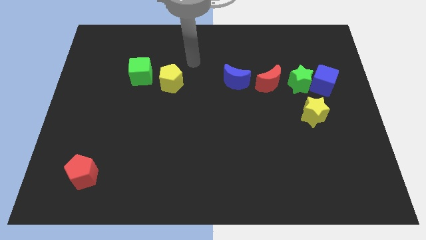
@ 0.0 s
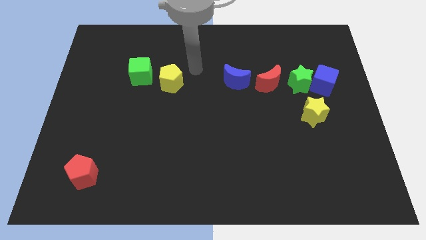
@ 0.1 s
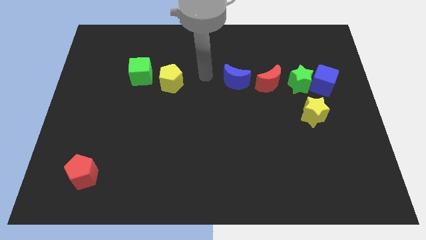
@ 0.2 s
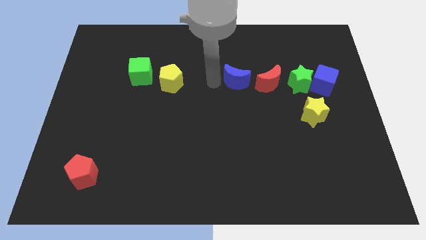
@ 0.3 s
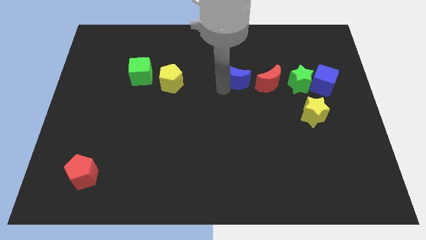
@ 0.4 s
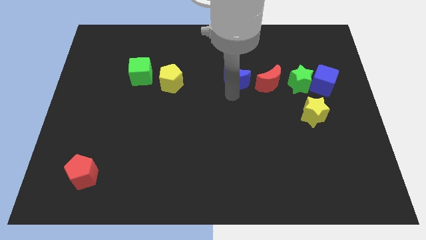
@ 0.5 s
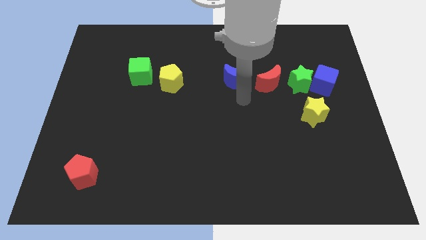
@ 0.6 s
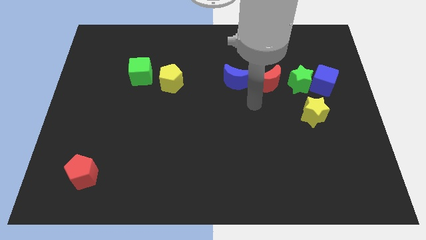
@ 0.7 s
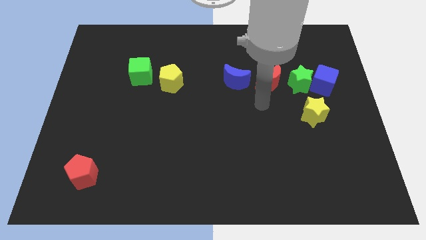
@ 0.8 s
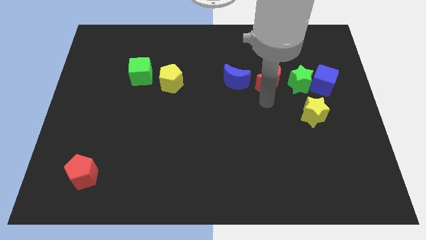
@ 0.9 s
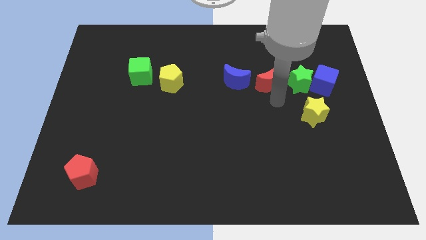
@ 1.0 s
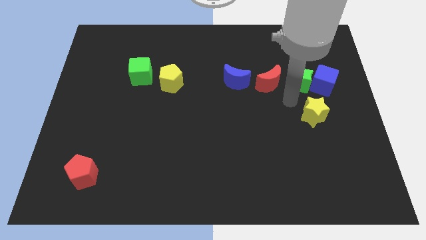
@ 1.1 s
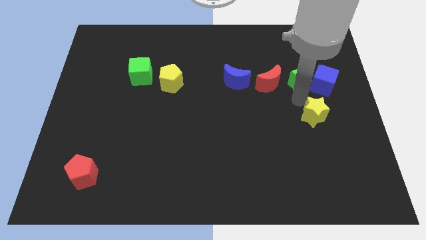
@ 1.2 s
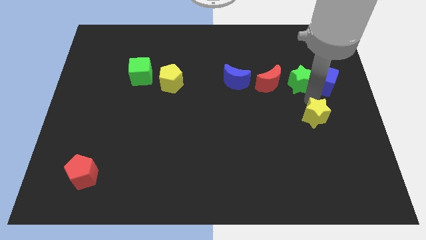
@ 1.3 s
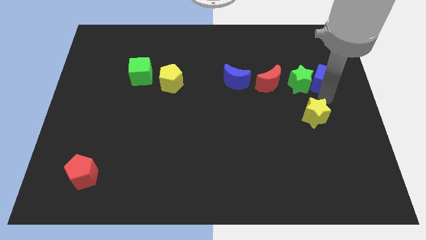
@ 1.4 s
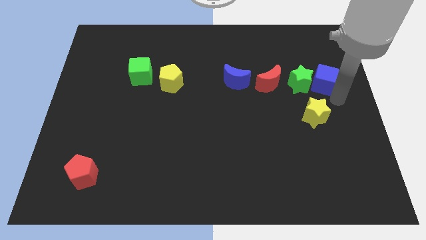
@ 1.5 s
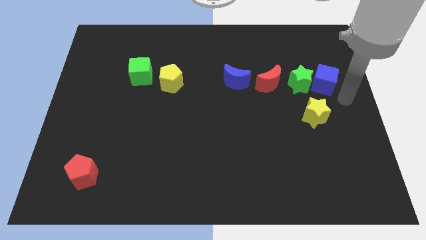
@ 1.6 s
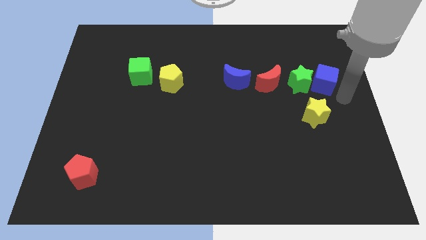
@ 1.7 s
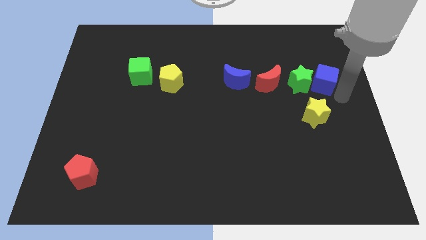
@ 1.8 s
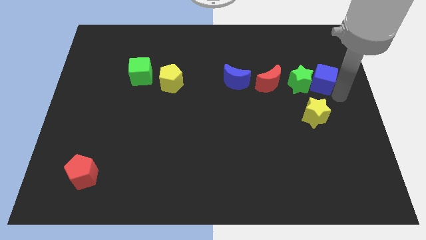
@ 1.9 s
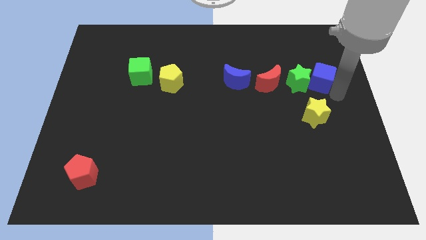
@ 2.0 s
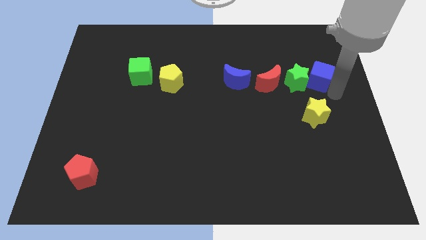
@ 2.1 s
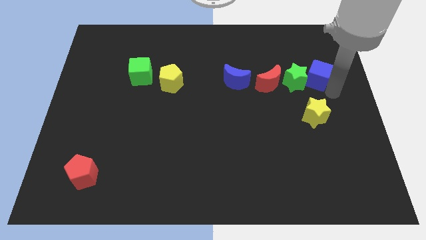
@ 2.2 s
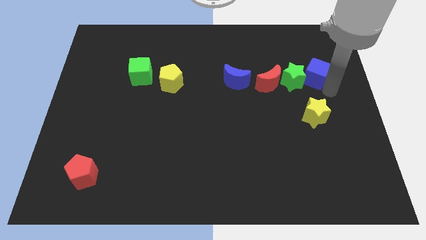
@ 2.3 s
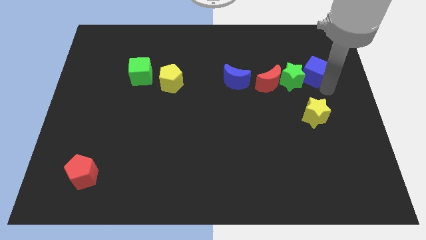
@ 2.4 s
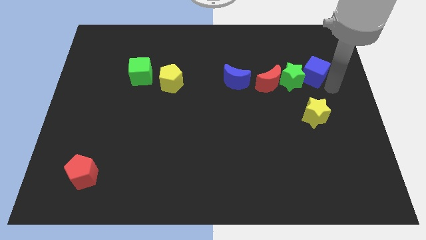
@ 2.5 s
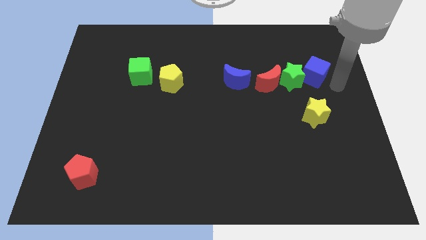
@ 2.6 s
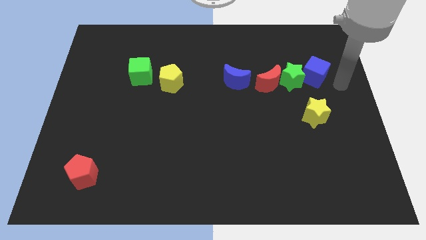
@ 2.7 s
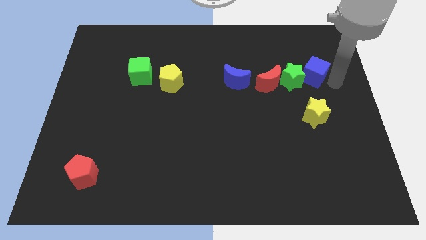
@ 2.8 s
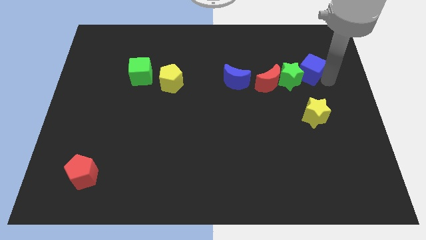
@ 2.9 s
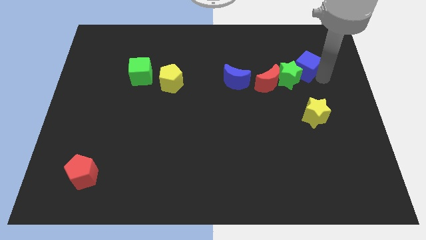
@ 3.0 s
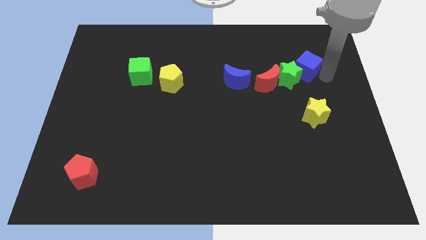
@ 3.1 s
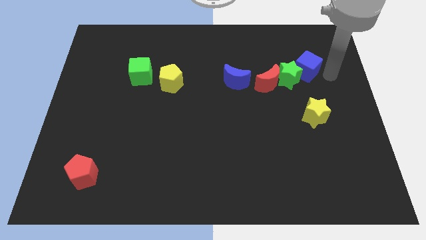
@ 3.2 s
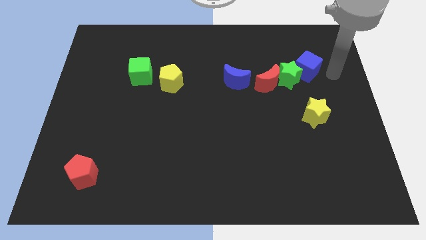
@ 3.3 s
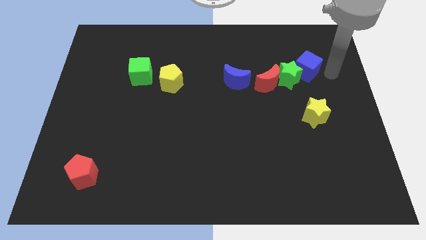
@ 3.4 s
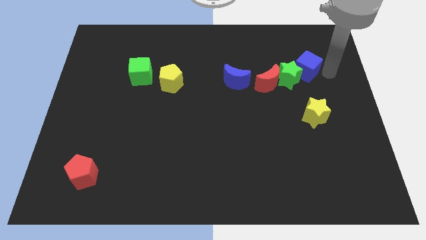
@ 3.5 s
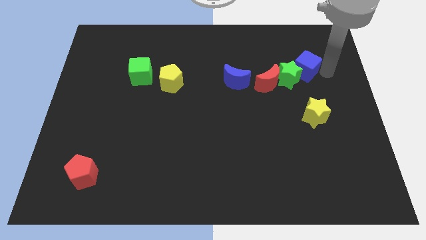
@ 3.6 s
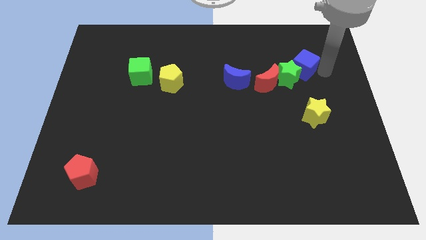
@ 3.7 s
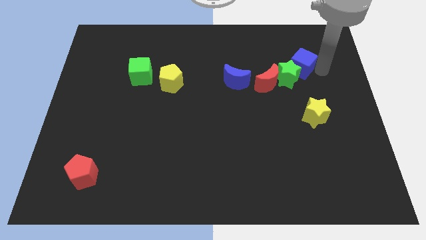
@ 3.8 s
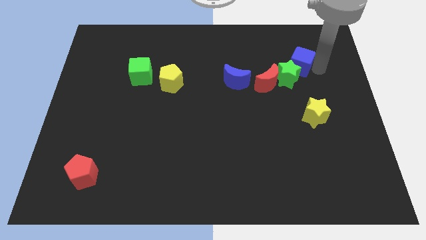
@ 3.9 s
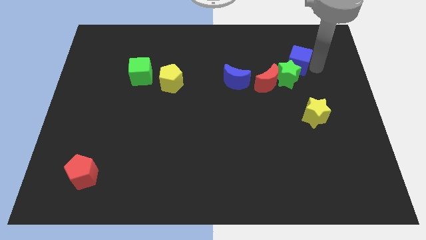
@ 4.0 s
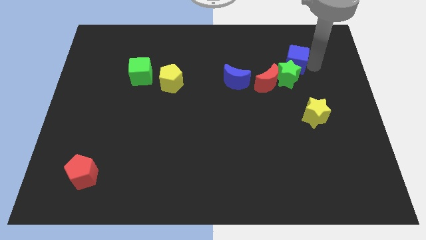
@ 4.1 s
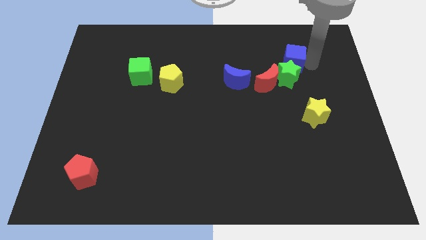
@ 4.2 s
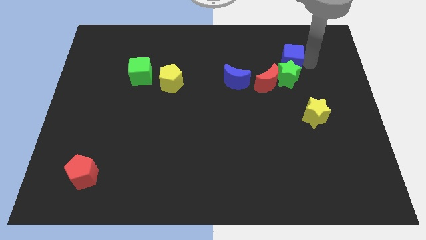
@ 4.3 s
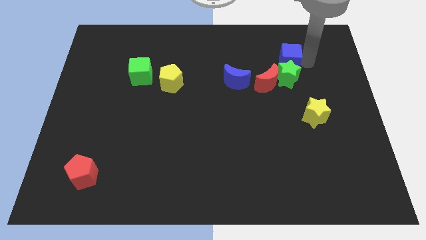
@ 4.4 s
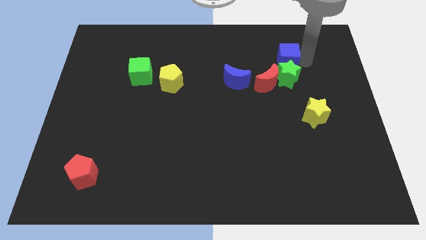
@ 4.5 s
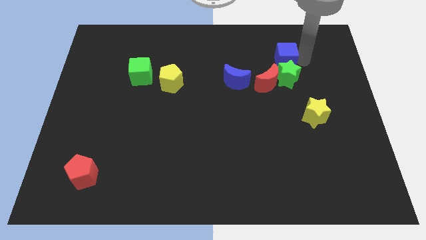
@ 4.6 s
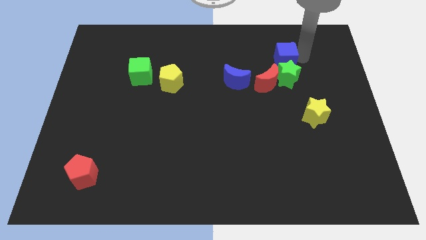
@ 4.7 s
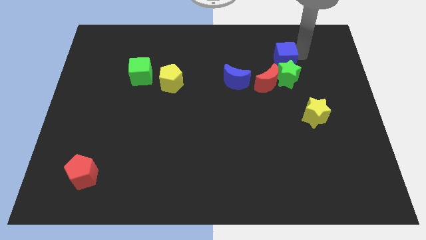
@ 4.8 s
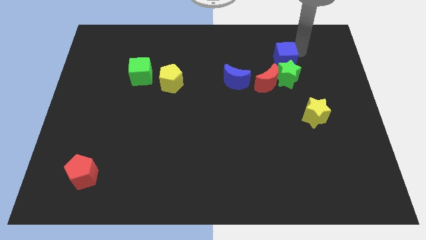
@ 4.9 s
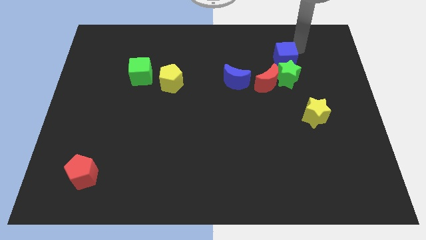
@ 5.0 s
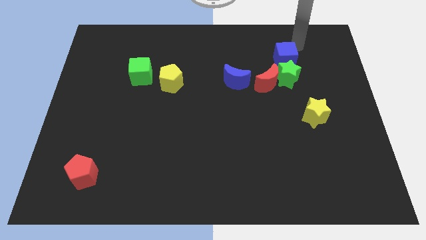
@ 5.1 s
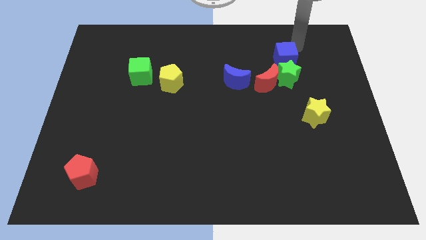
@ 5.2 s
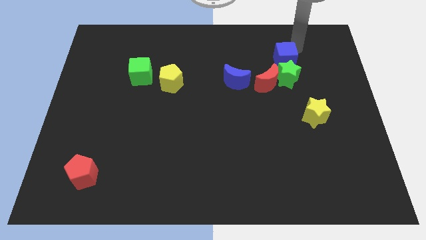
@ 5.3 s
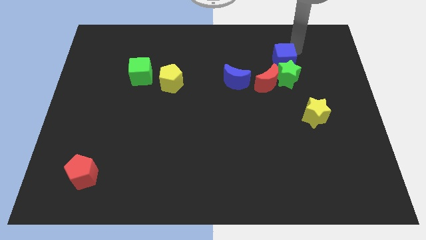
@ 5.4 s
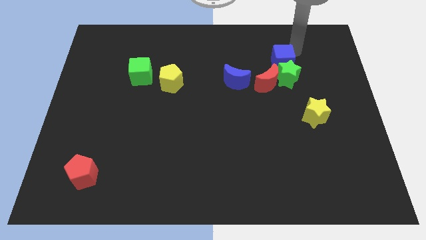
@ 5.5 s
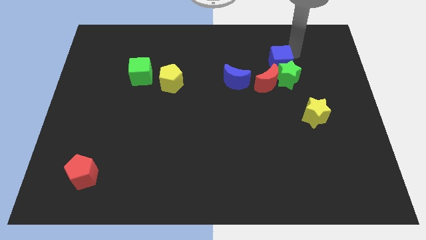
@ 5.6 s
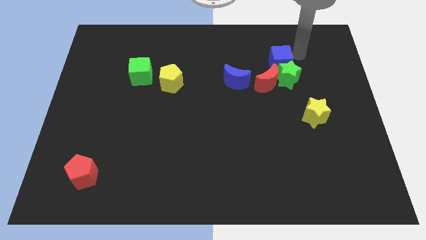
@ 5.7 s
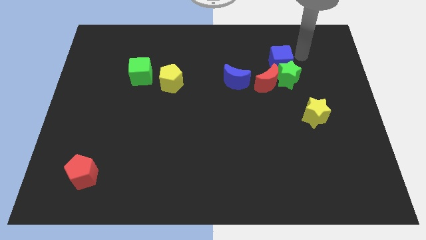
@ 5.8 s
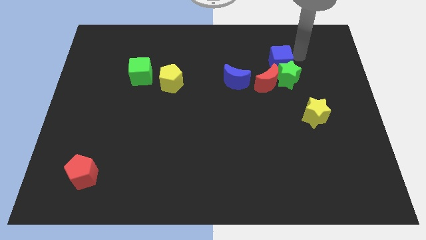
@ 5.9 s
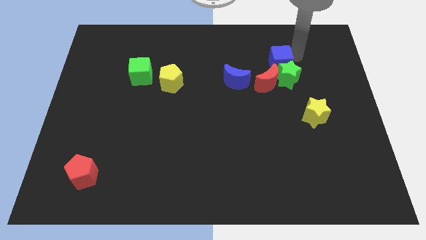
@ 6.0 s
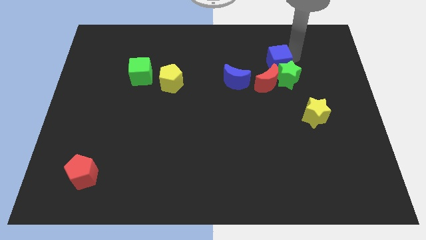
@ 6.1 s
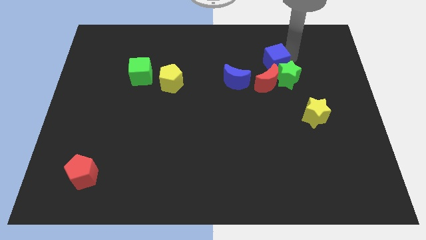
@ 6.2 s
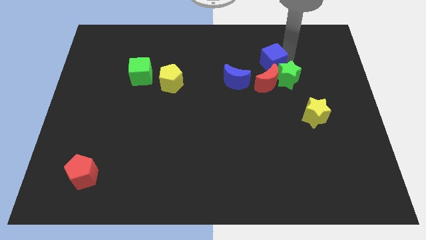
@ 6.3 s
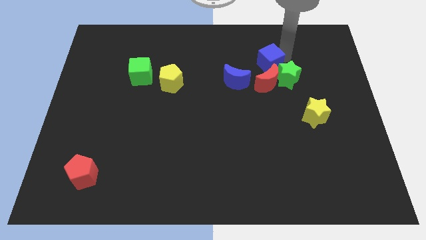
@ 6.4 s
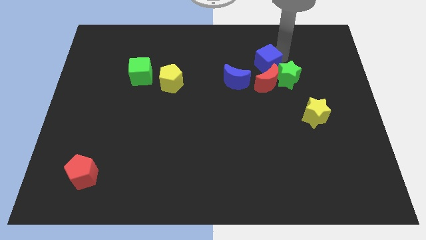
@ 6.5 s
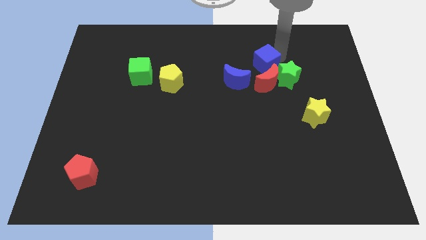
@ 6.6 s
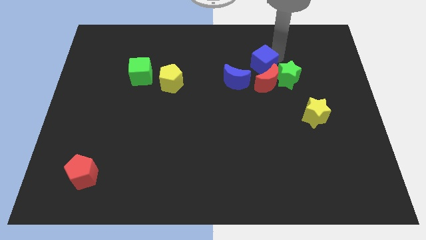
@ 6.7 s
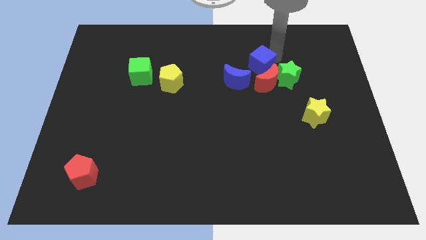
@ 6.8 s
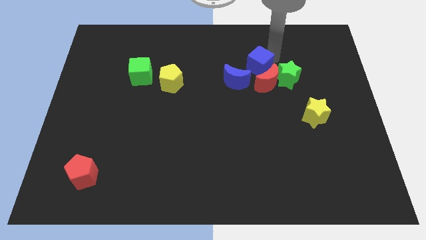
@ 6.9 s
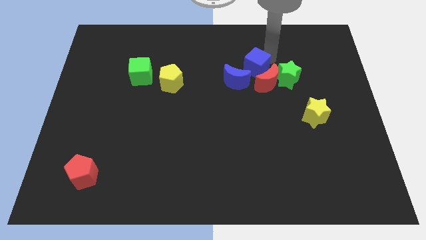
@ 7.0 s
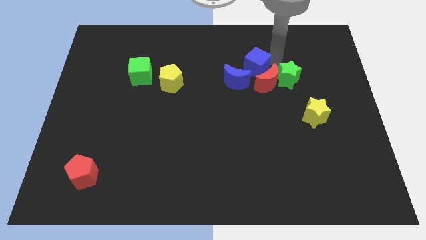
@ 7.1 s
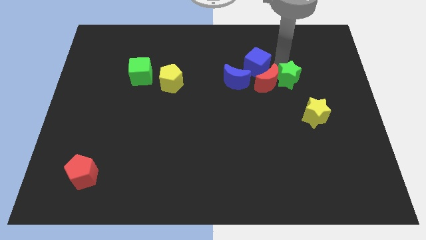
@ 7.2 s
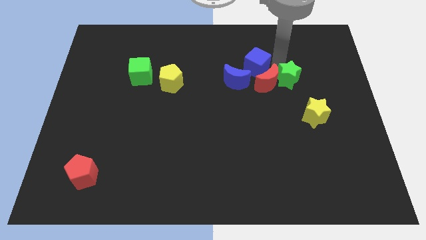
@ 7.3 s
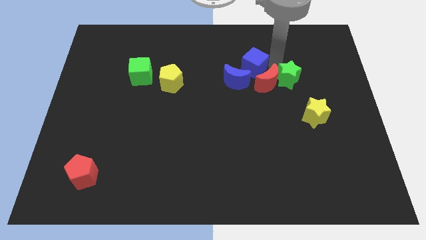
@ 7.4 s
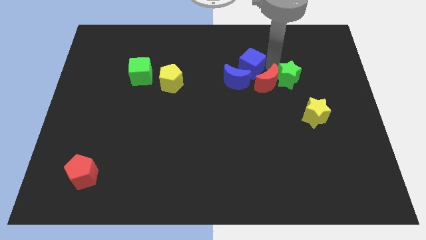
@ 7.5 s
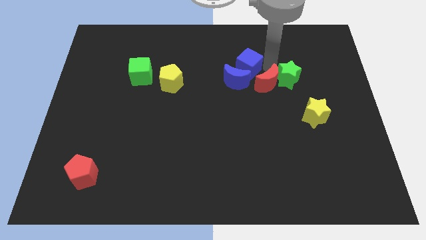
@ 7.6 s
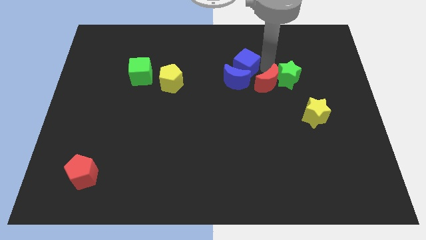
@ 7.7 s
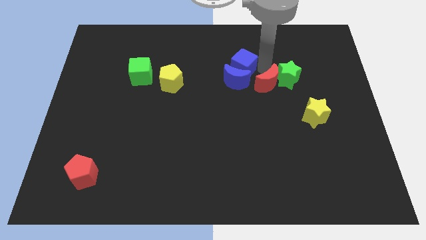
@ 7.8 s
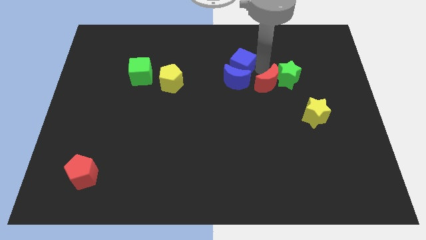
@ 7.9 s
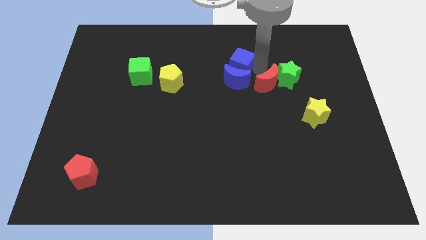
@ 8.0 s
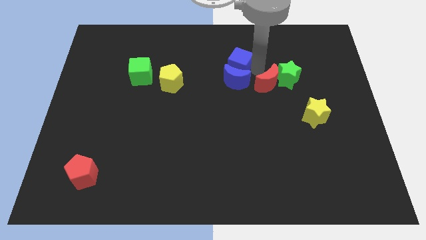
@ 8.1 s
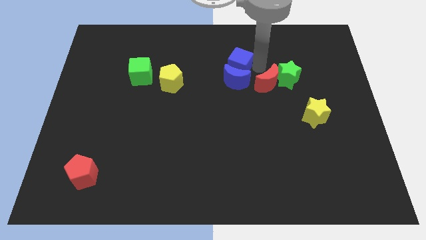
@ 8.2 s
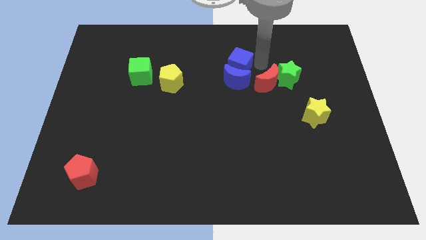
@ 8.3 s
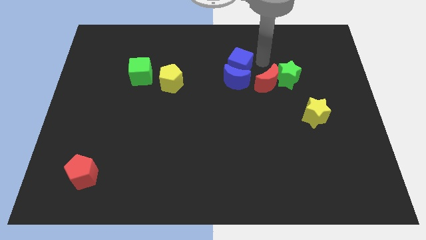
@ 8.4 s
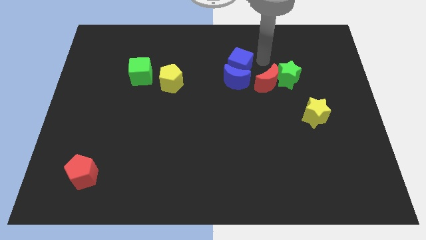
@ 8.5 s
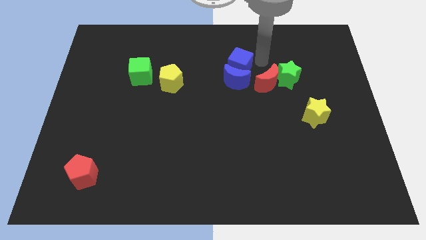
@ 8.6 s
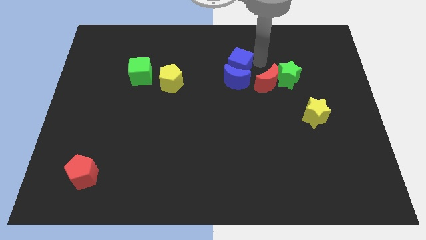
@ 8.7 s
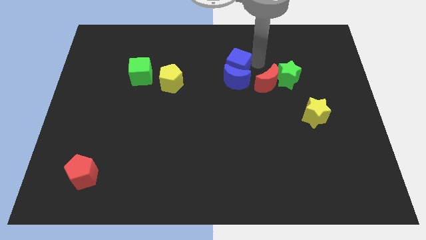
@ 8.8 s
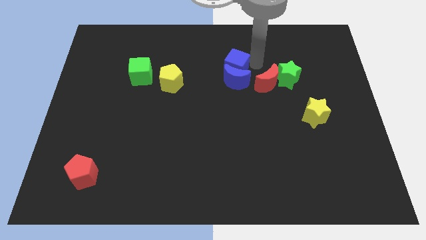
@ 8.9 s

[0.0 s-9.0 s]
move the blue cube to the left
